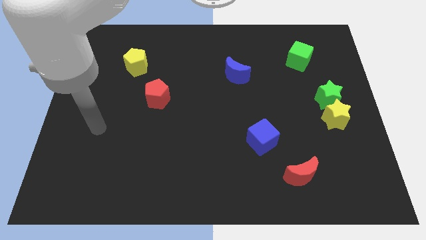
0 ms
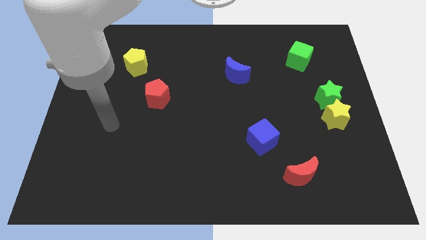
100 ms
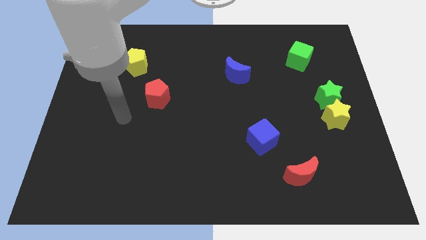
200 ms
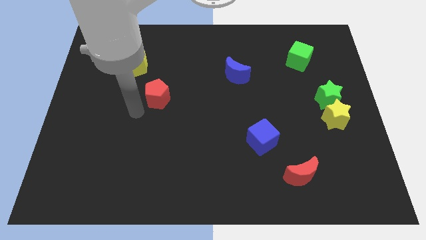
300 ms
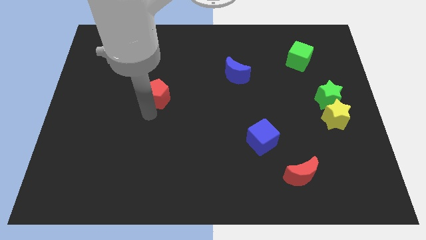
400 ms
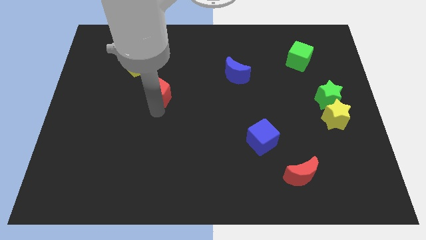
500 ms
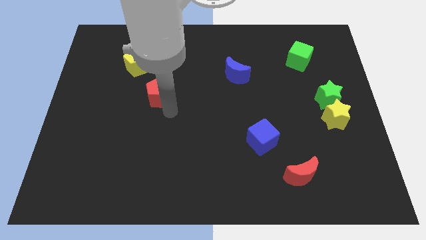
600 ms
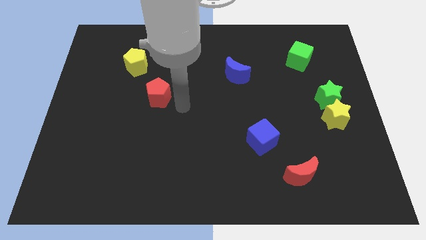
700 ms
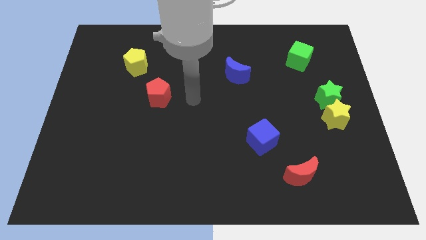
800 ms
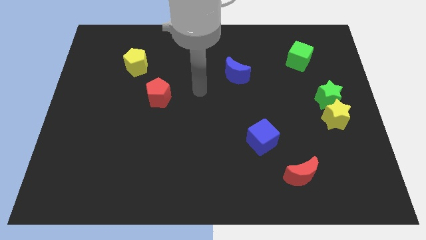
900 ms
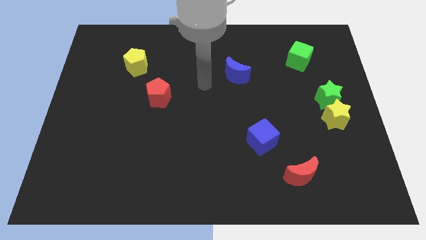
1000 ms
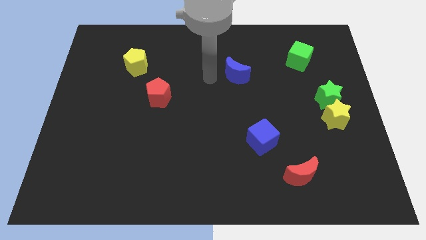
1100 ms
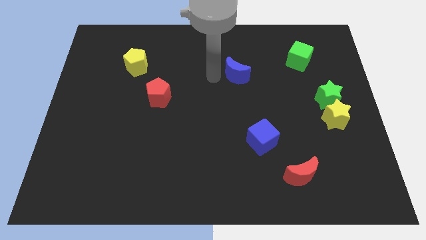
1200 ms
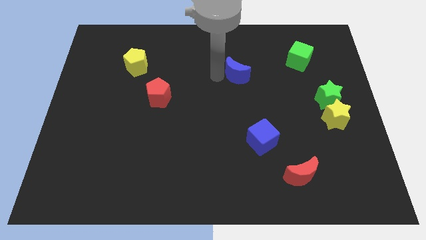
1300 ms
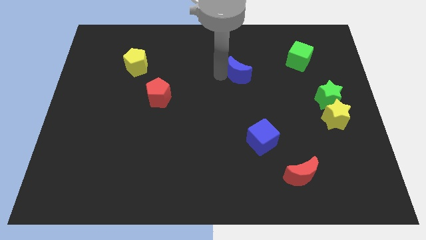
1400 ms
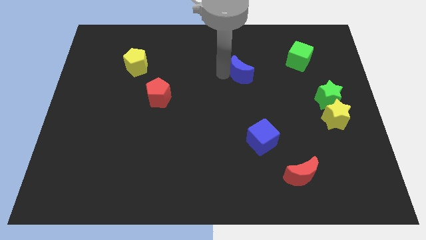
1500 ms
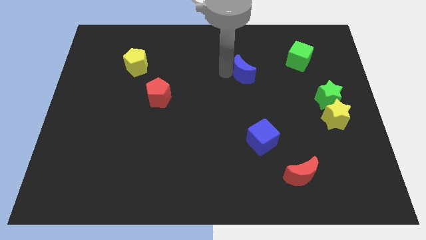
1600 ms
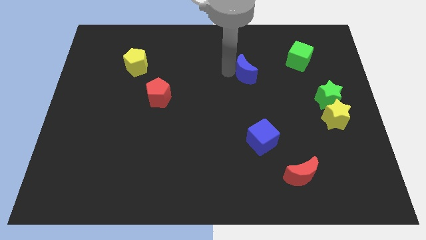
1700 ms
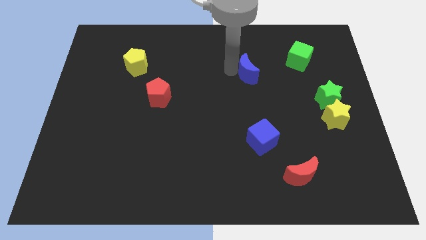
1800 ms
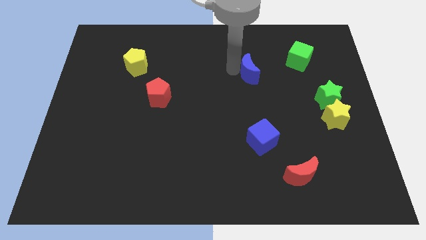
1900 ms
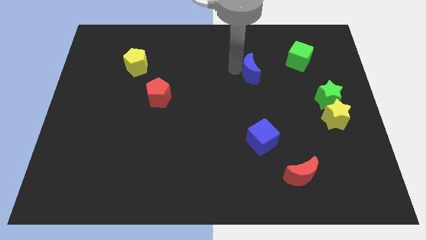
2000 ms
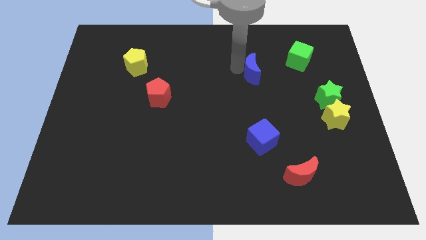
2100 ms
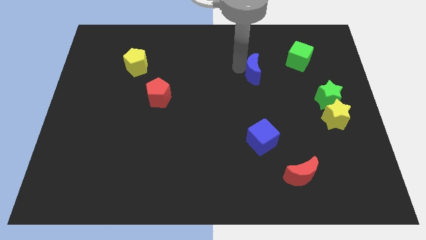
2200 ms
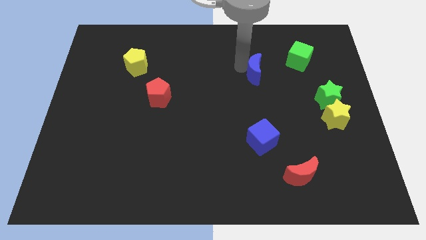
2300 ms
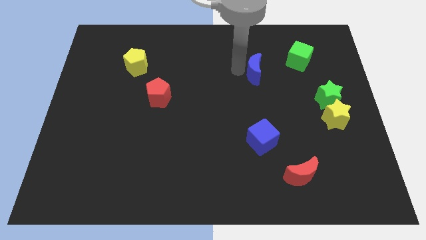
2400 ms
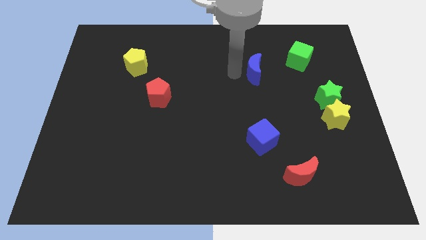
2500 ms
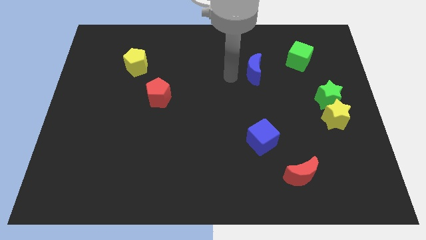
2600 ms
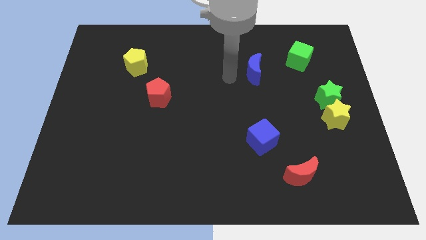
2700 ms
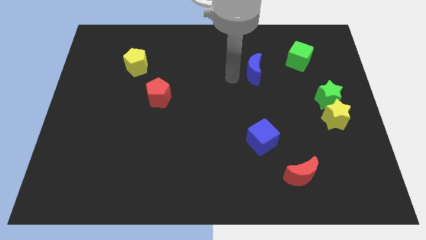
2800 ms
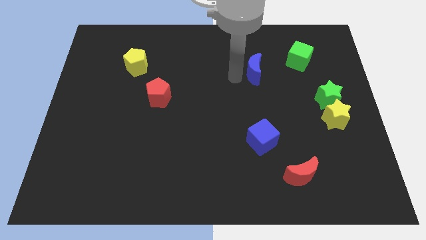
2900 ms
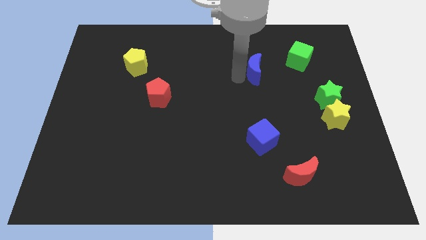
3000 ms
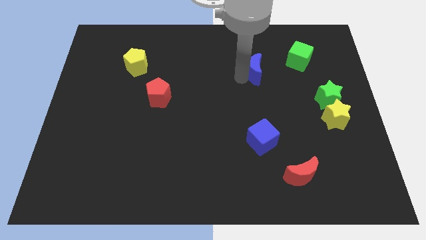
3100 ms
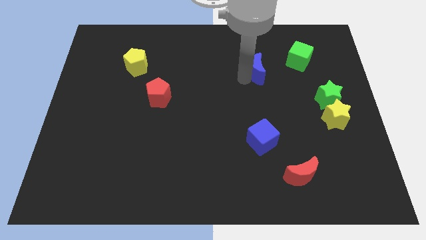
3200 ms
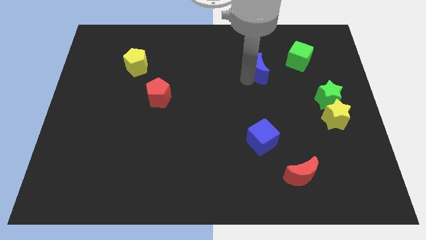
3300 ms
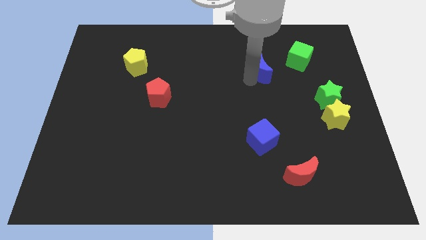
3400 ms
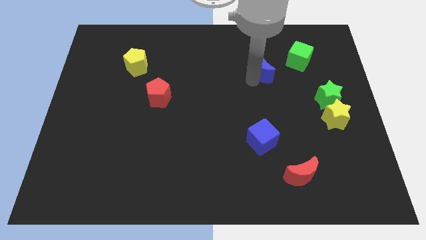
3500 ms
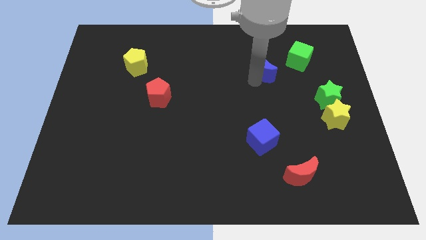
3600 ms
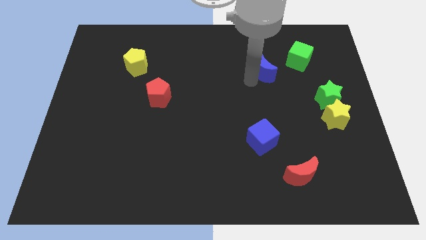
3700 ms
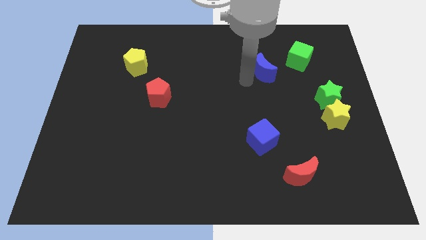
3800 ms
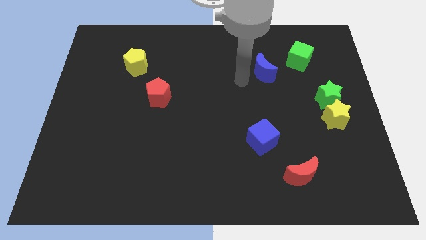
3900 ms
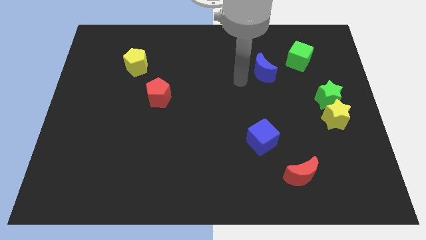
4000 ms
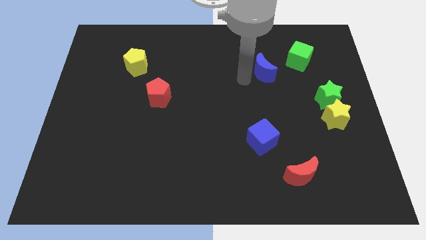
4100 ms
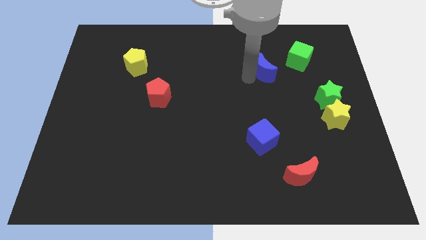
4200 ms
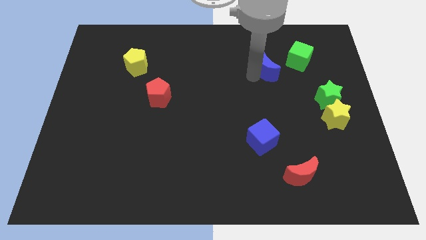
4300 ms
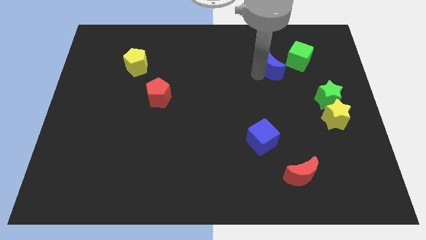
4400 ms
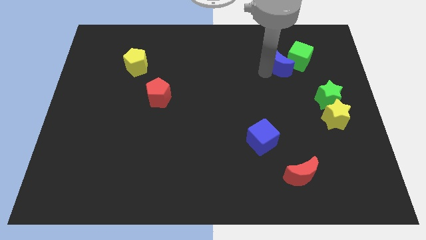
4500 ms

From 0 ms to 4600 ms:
put the blue moon to the green cube

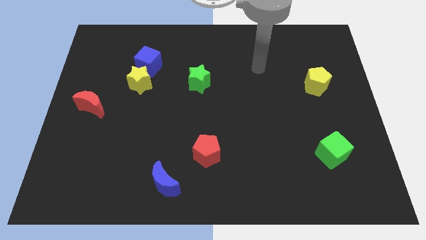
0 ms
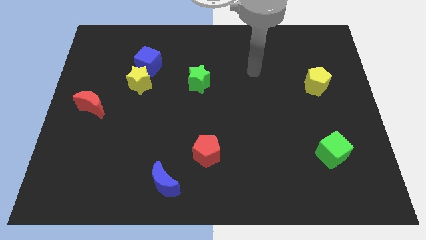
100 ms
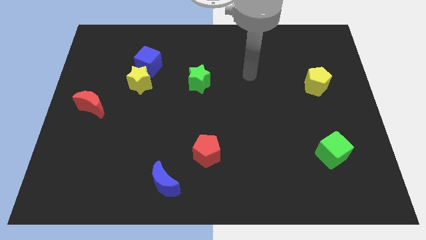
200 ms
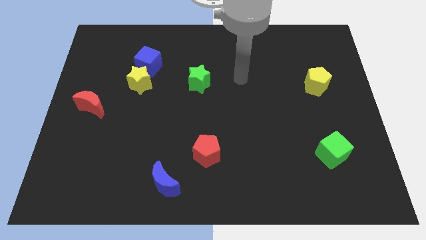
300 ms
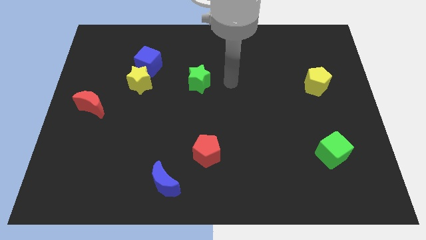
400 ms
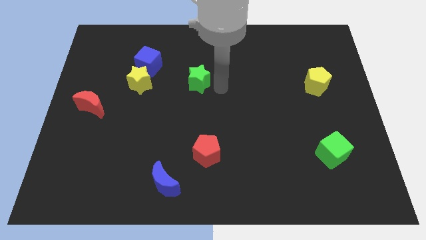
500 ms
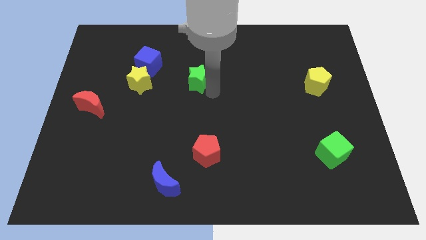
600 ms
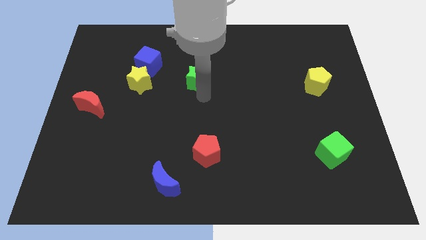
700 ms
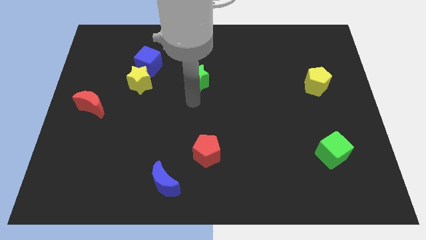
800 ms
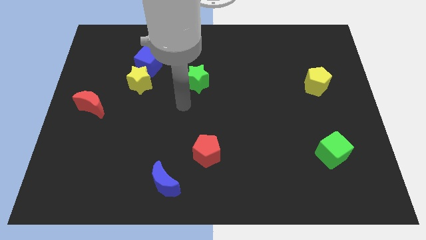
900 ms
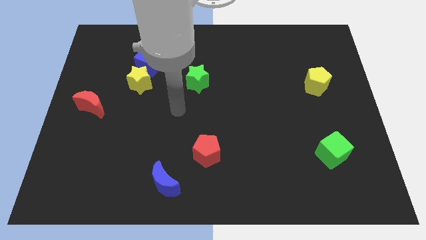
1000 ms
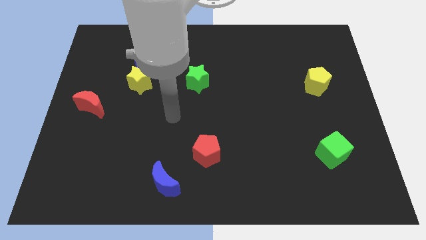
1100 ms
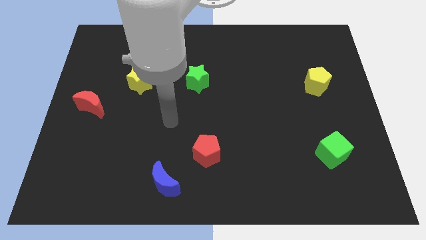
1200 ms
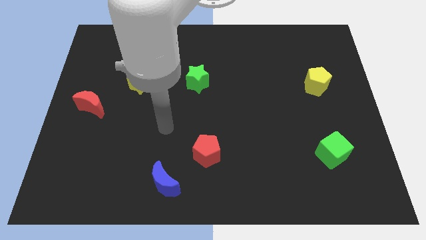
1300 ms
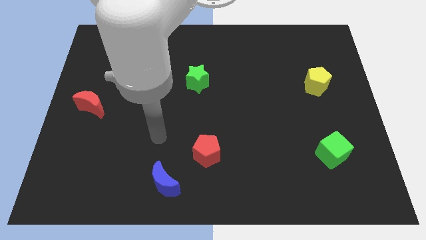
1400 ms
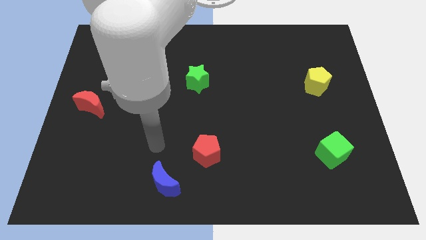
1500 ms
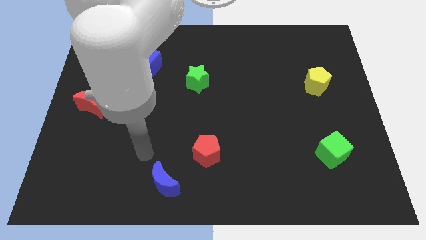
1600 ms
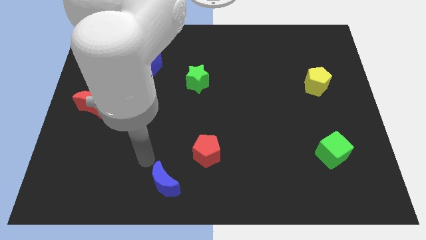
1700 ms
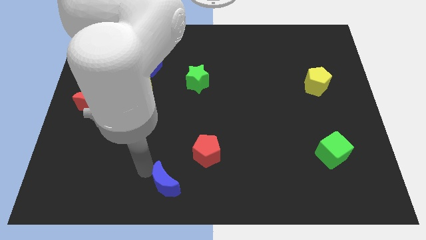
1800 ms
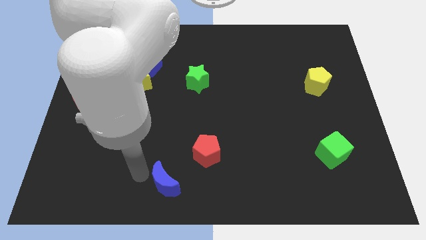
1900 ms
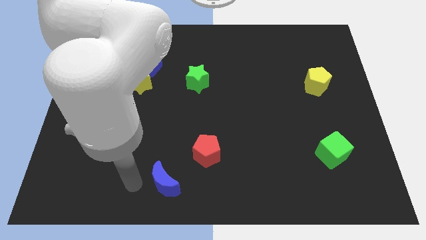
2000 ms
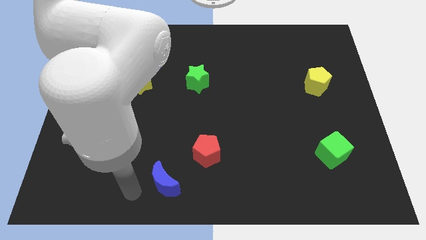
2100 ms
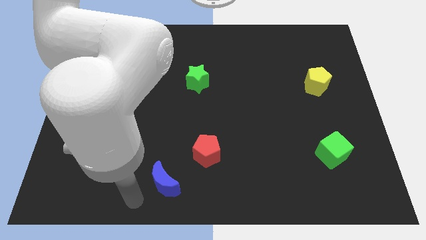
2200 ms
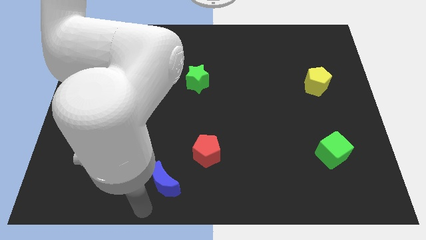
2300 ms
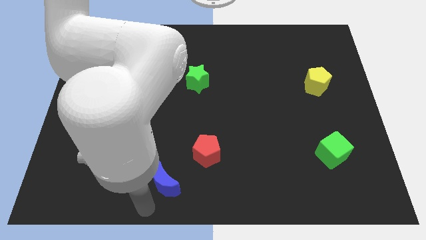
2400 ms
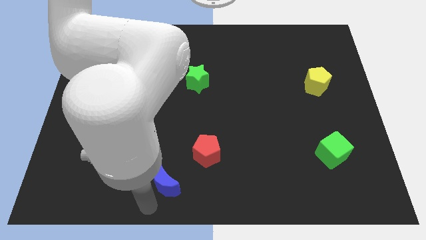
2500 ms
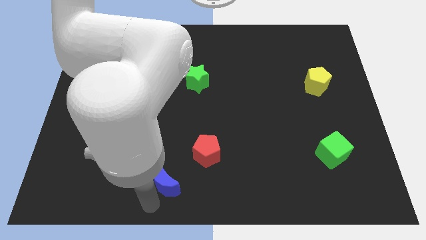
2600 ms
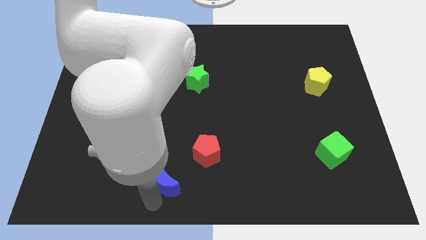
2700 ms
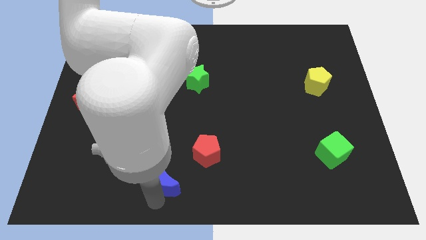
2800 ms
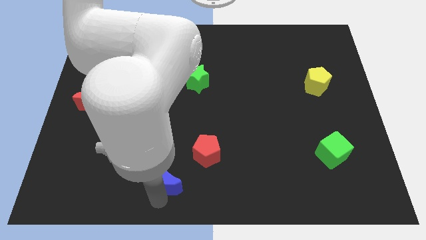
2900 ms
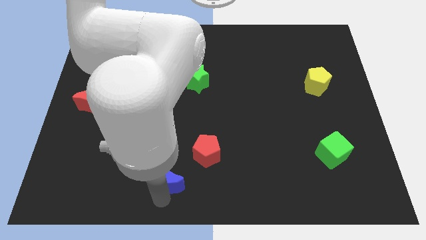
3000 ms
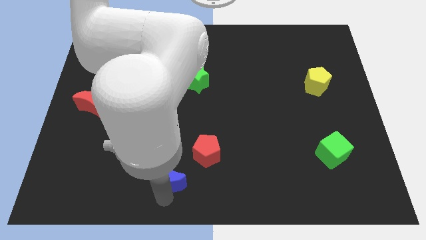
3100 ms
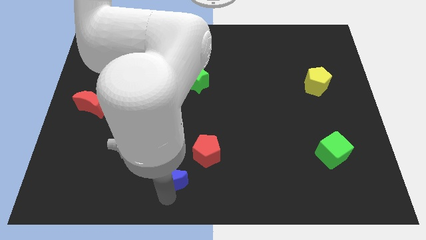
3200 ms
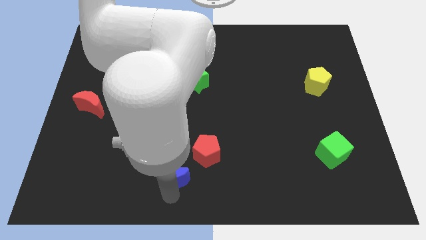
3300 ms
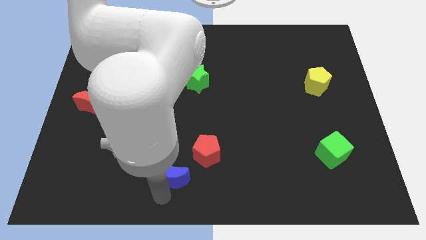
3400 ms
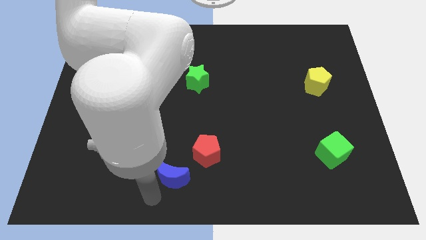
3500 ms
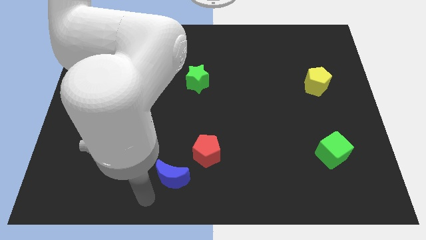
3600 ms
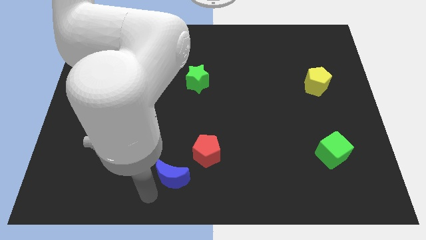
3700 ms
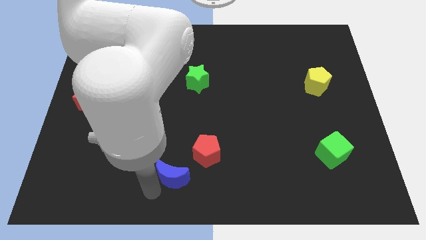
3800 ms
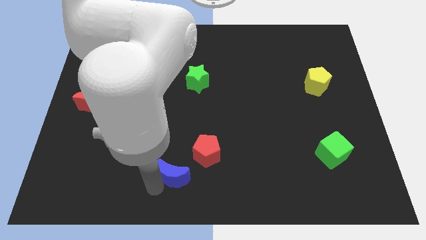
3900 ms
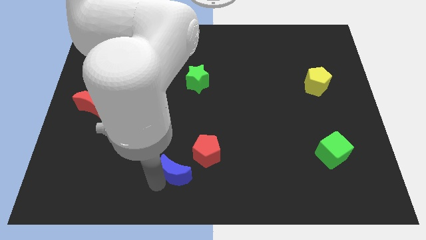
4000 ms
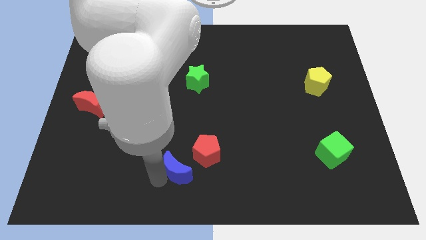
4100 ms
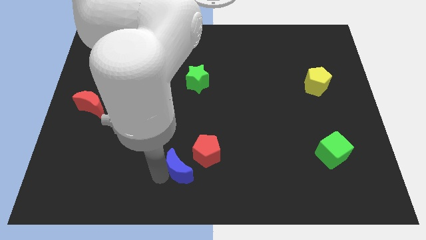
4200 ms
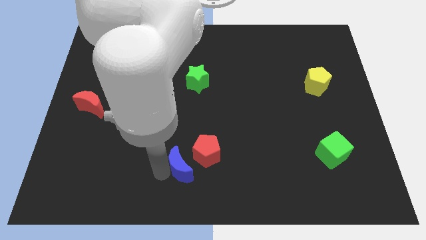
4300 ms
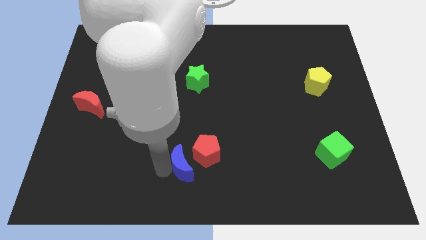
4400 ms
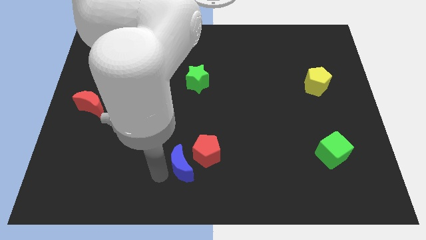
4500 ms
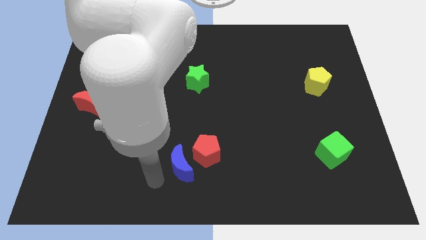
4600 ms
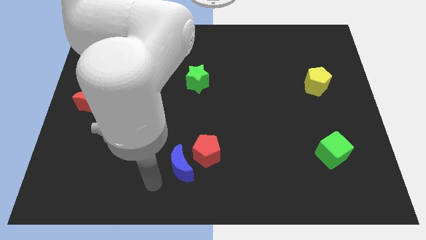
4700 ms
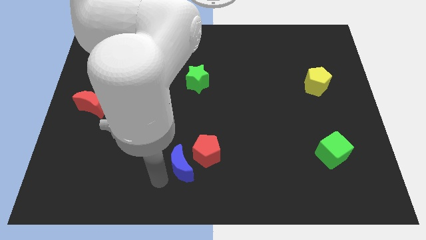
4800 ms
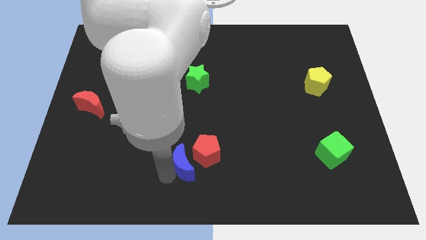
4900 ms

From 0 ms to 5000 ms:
push the blue moon towards the red pentagon
